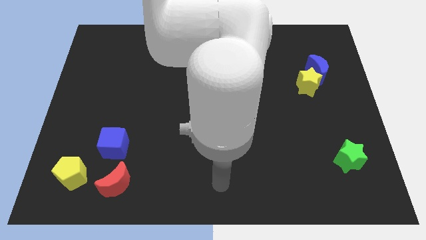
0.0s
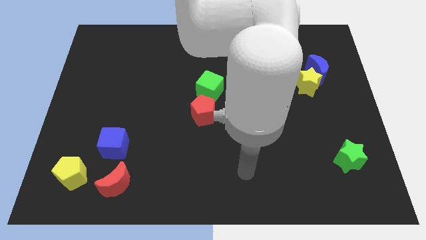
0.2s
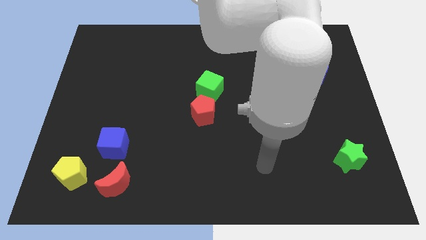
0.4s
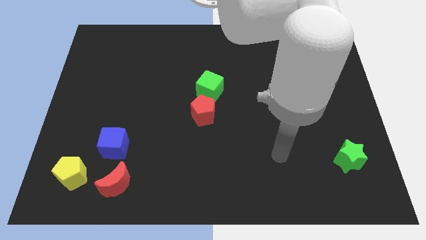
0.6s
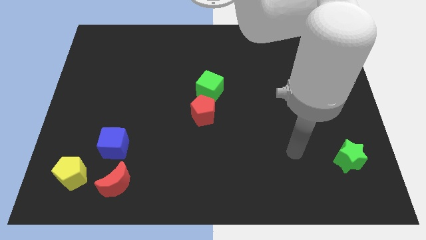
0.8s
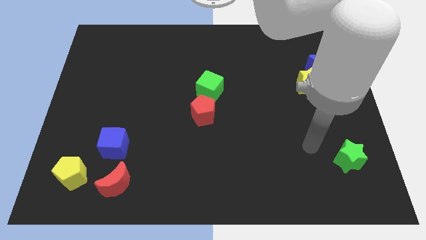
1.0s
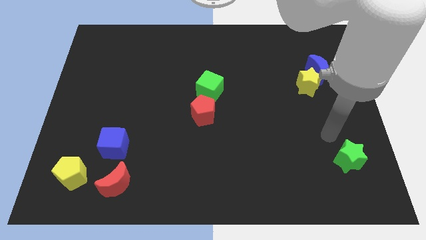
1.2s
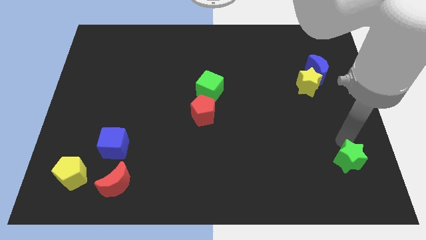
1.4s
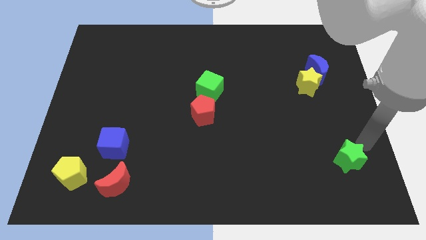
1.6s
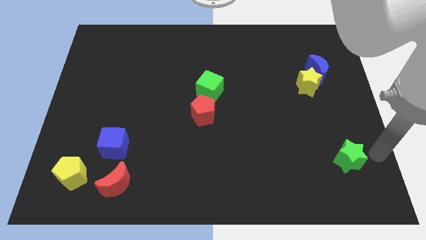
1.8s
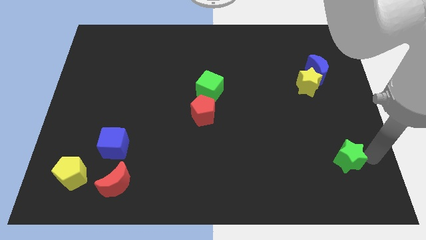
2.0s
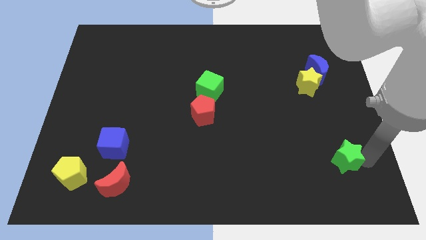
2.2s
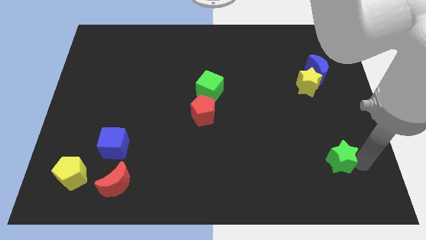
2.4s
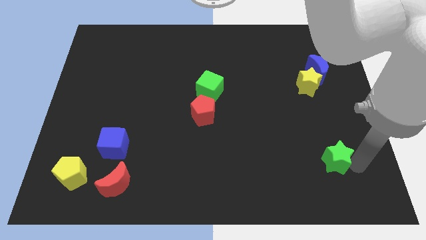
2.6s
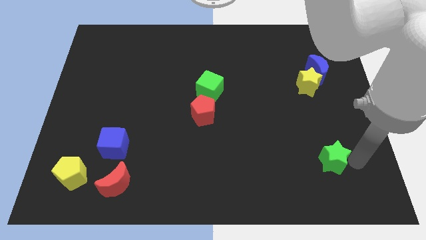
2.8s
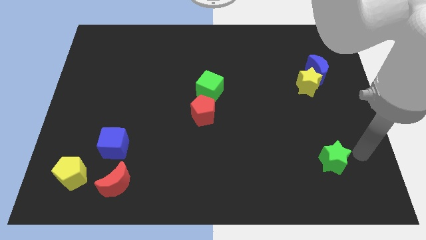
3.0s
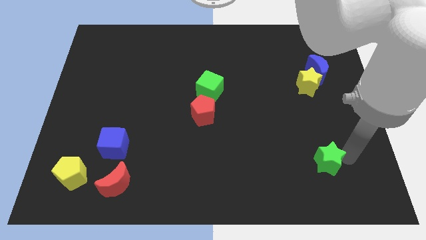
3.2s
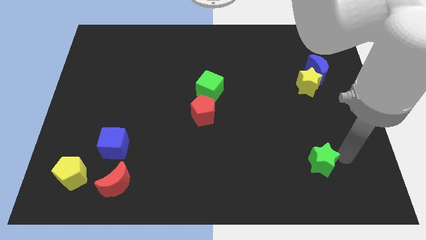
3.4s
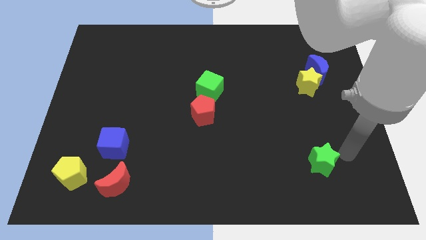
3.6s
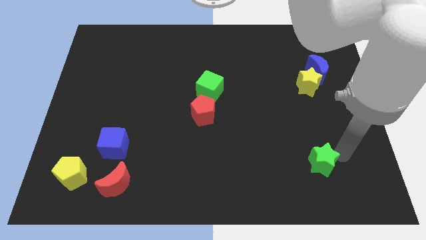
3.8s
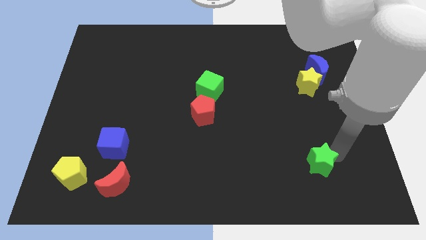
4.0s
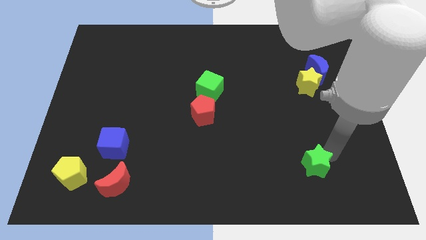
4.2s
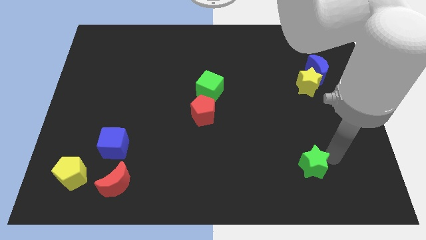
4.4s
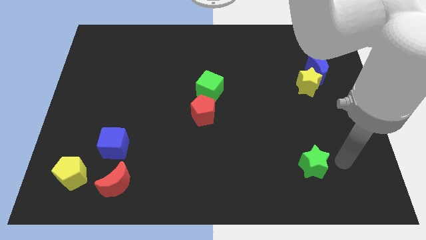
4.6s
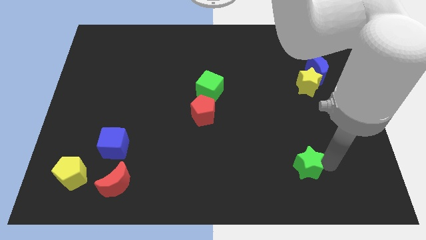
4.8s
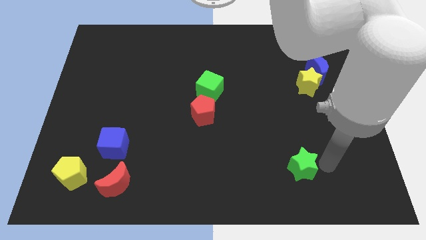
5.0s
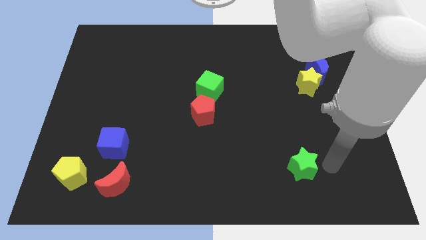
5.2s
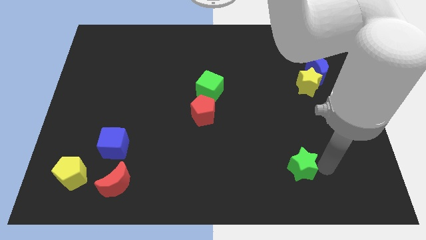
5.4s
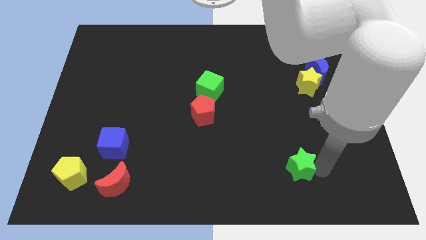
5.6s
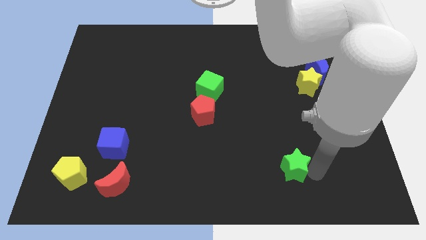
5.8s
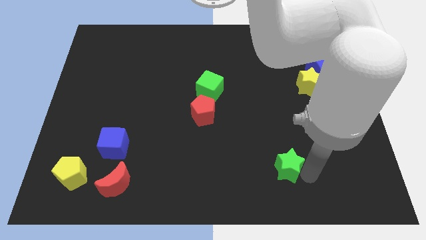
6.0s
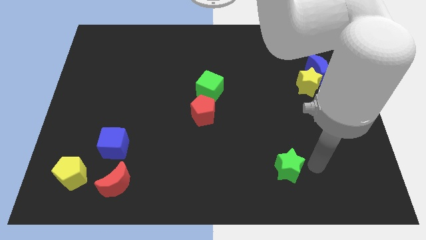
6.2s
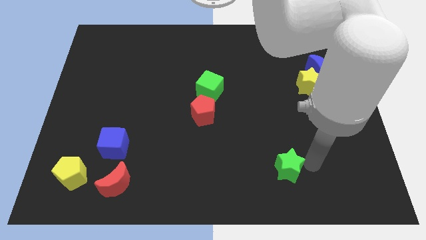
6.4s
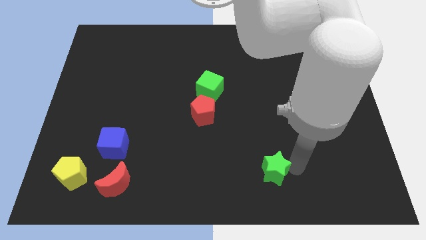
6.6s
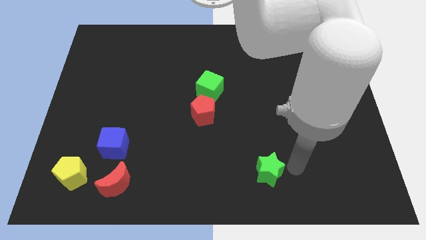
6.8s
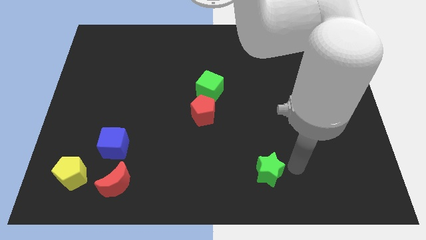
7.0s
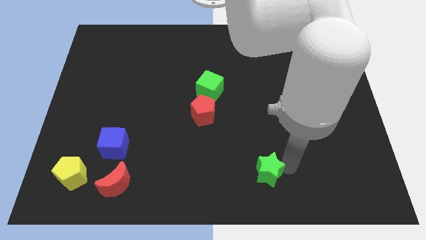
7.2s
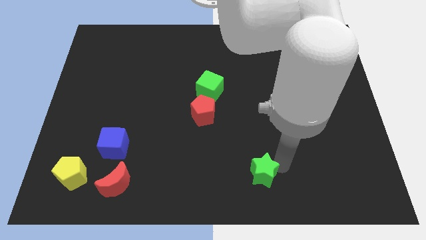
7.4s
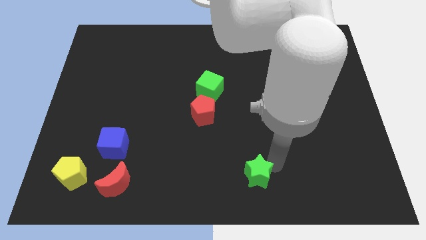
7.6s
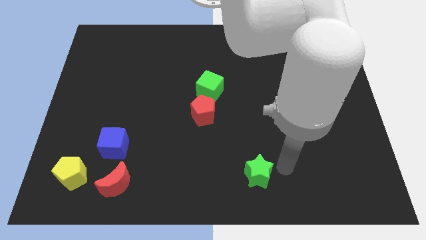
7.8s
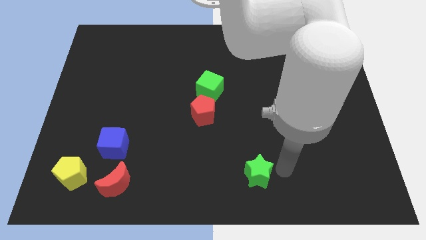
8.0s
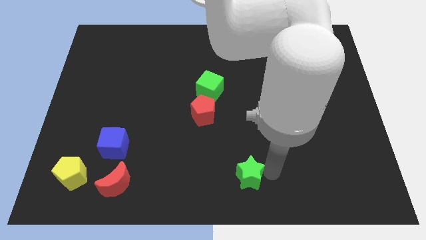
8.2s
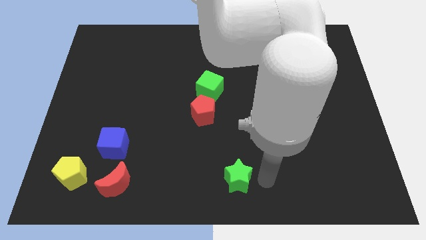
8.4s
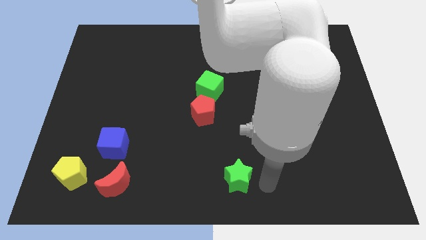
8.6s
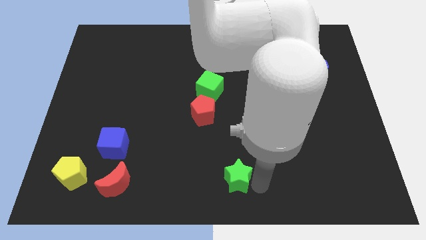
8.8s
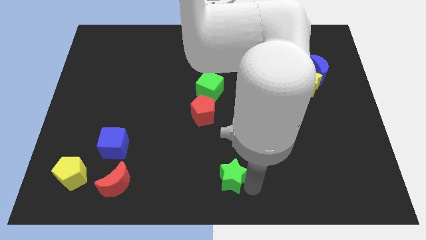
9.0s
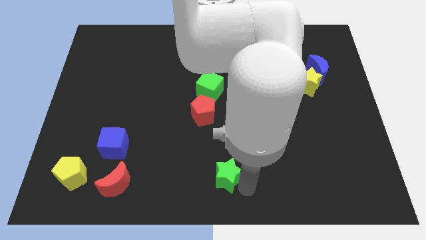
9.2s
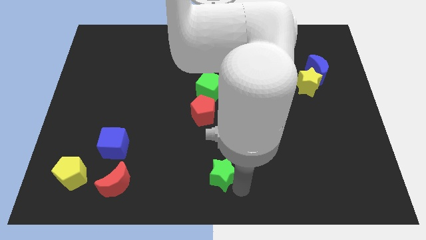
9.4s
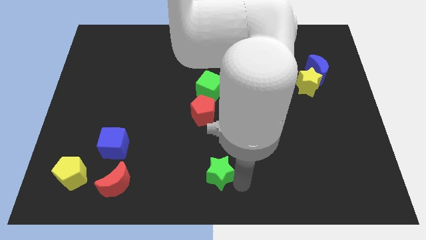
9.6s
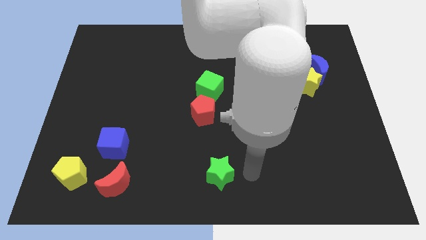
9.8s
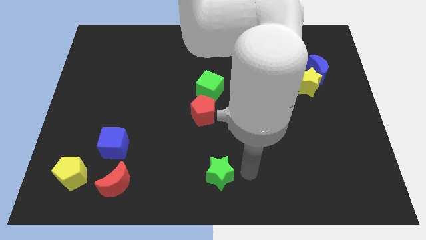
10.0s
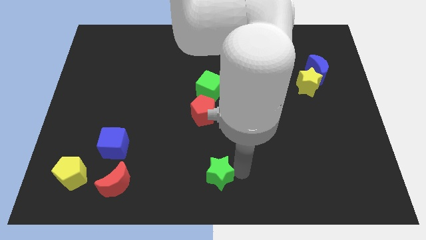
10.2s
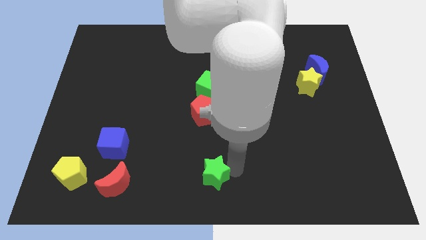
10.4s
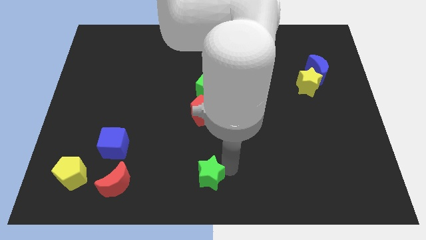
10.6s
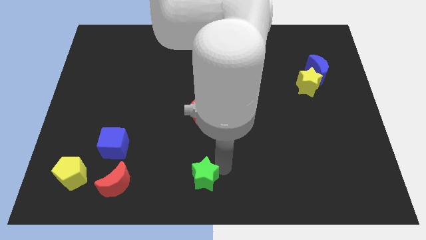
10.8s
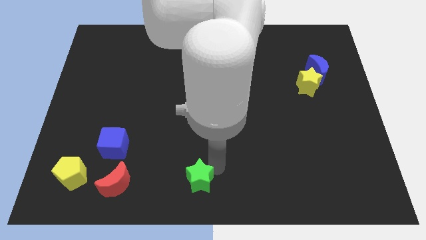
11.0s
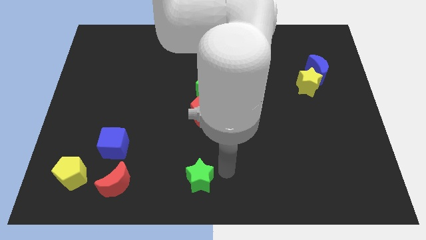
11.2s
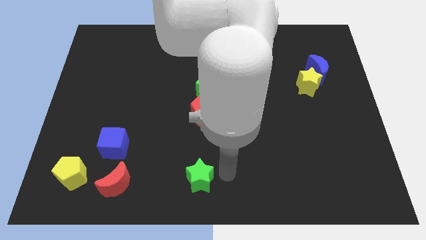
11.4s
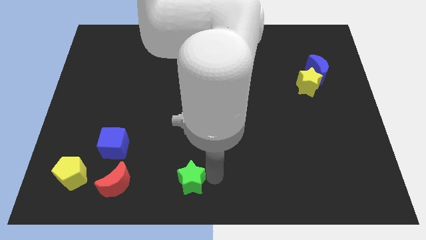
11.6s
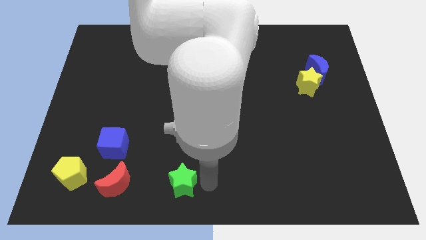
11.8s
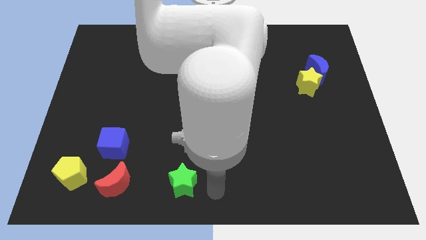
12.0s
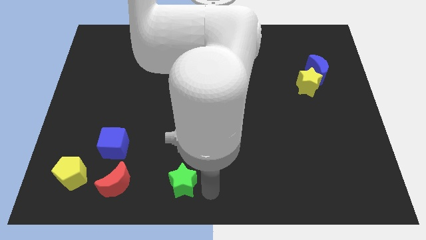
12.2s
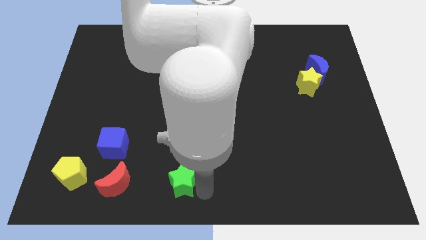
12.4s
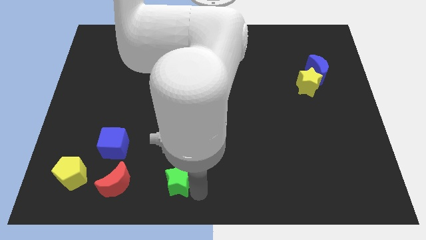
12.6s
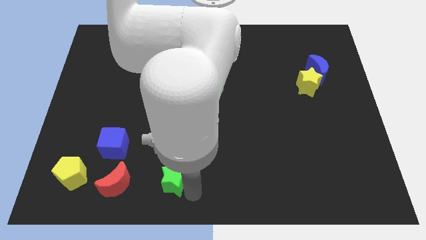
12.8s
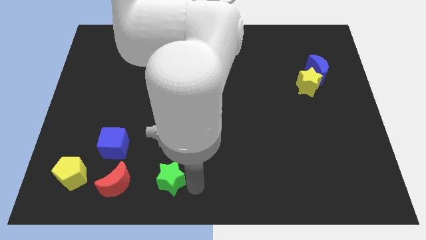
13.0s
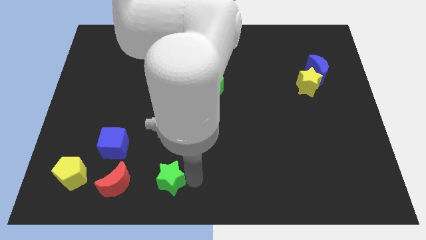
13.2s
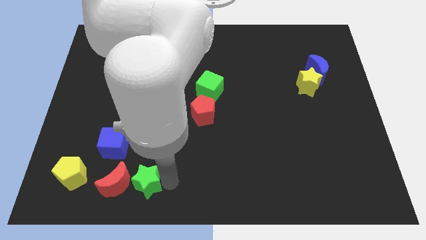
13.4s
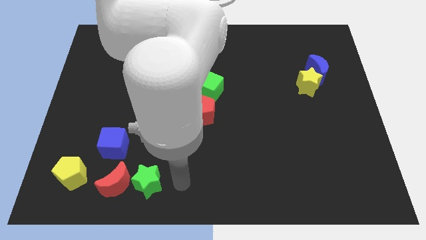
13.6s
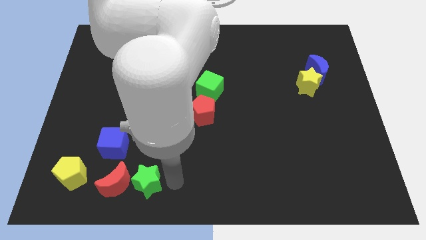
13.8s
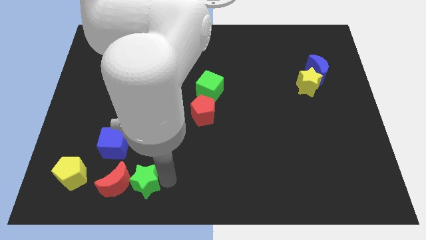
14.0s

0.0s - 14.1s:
move the green star towards the red moon
